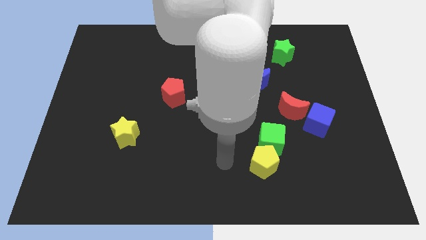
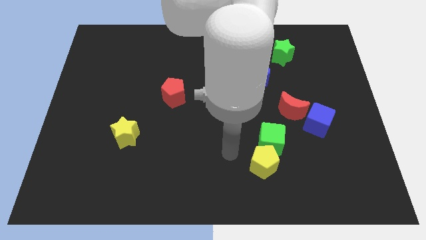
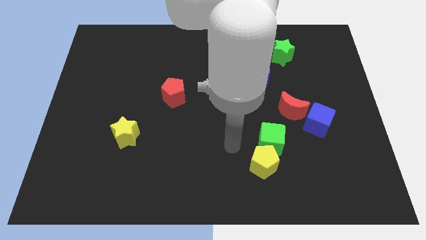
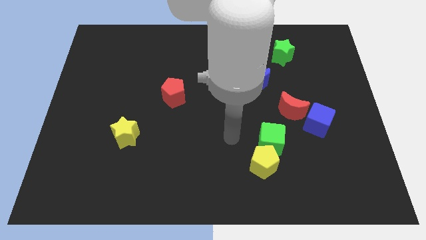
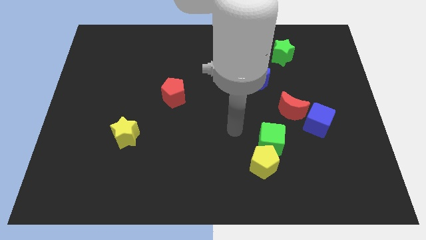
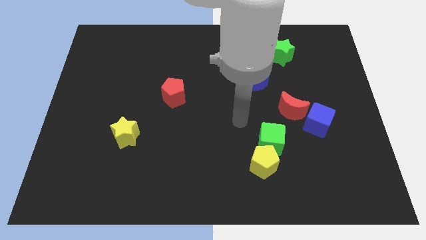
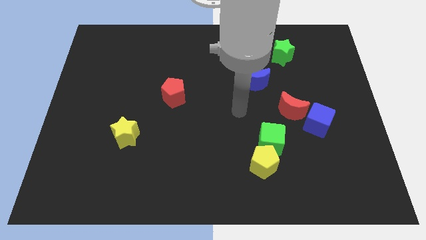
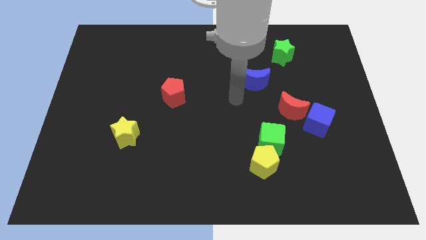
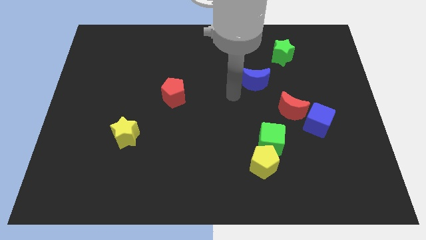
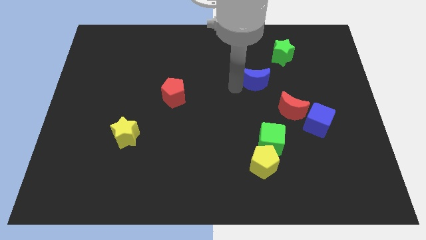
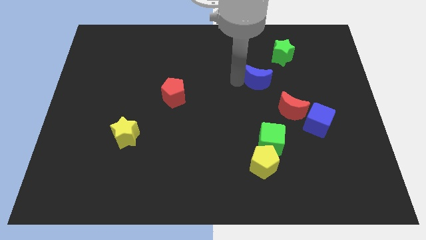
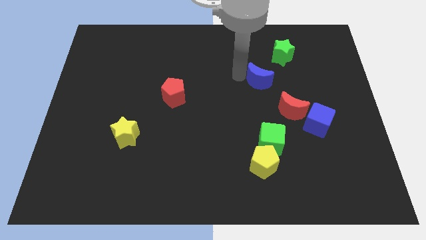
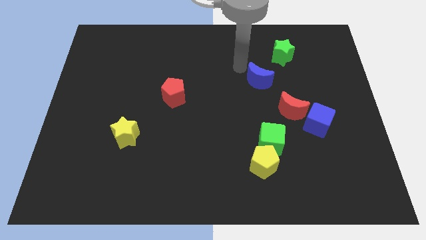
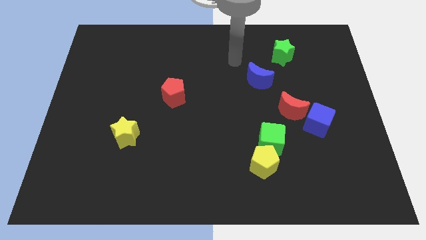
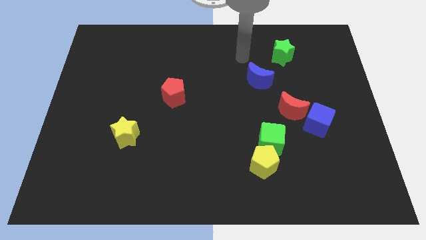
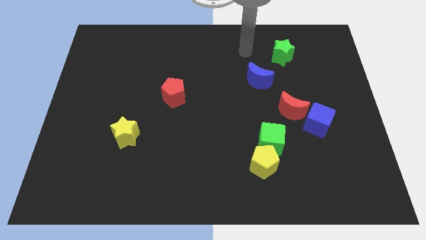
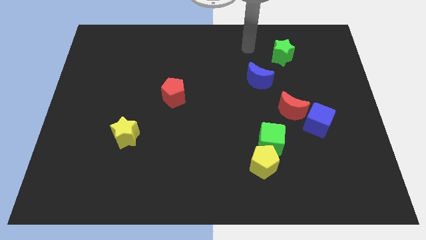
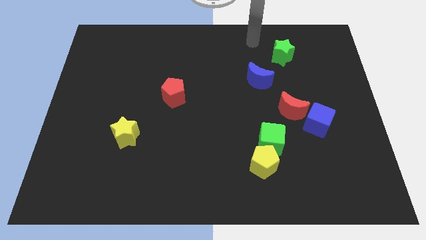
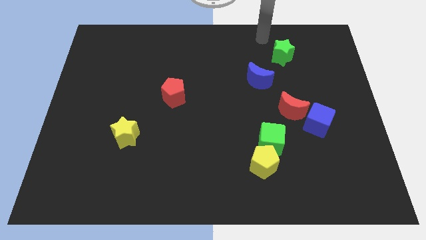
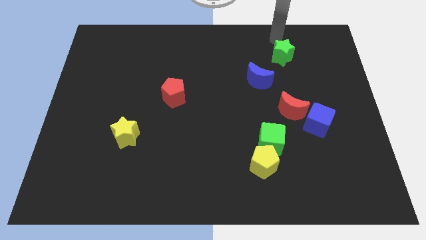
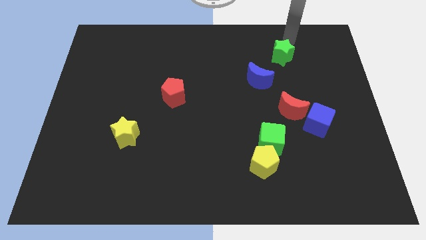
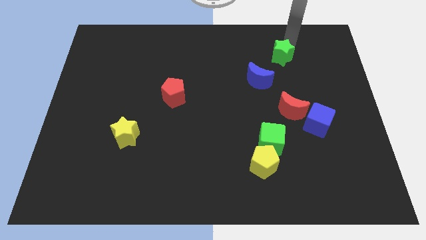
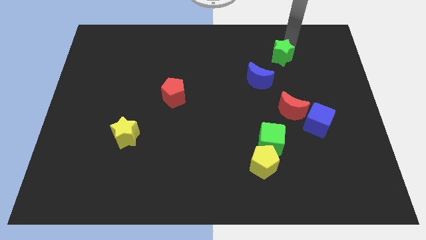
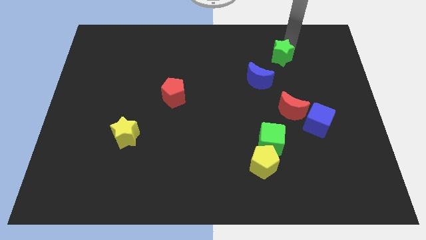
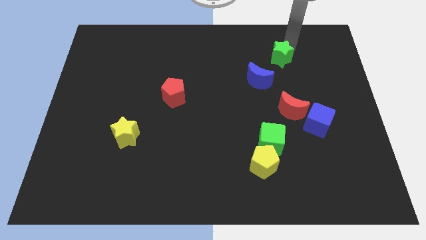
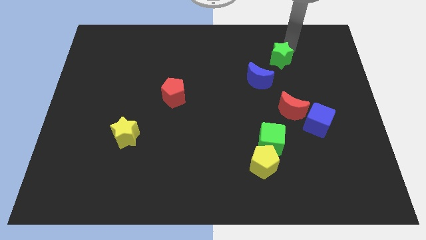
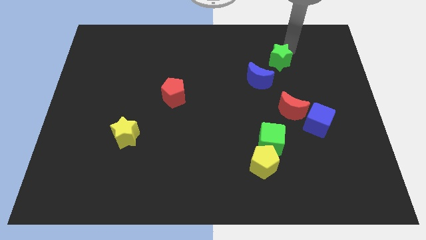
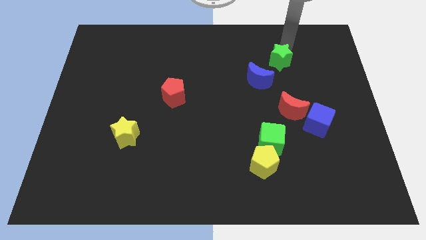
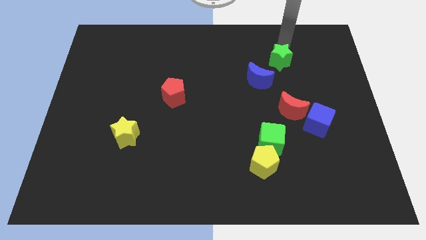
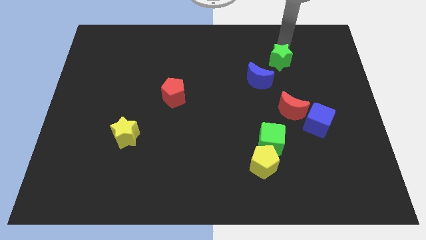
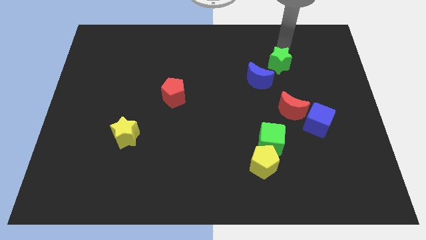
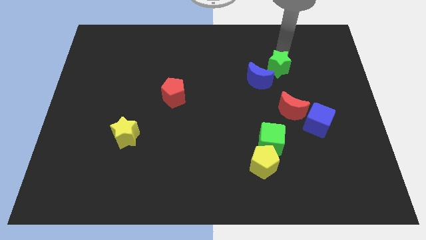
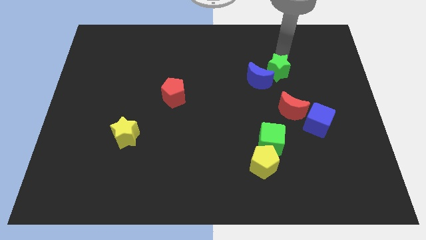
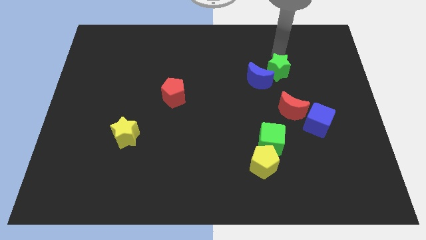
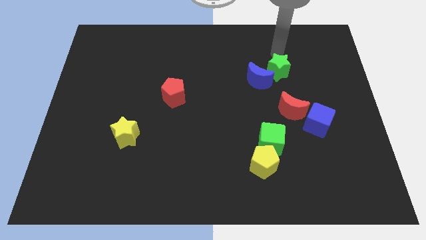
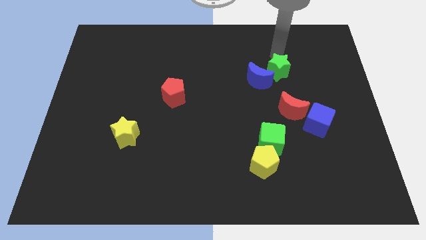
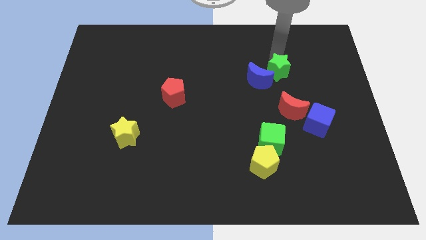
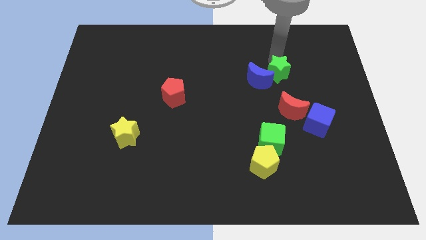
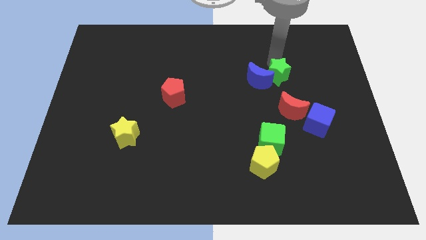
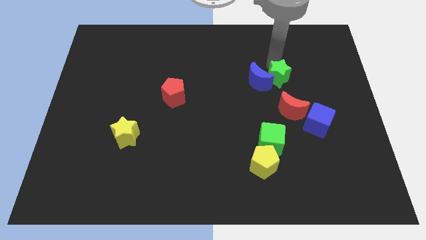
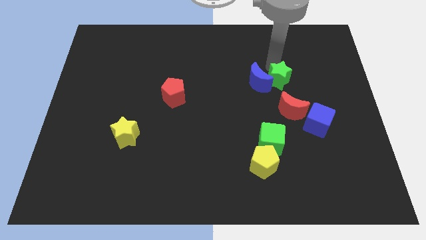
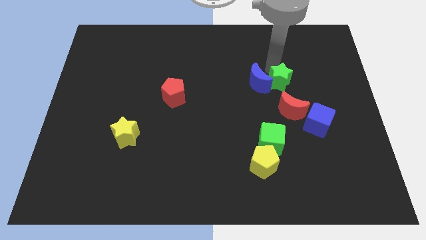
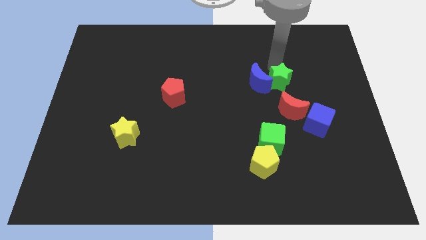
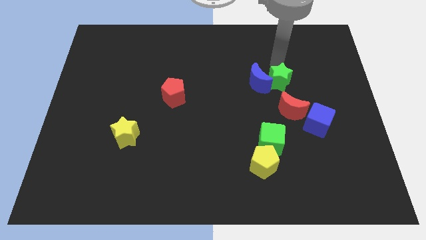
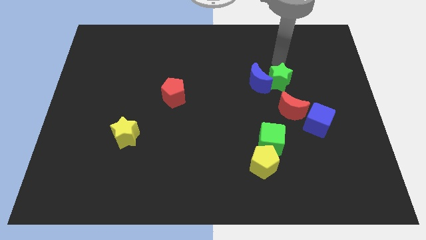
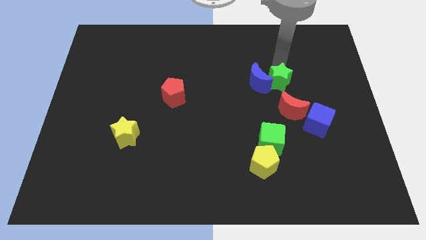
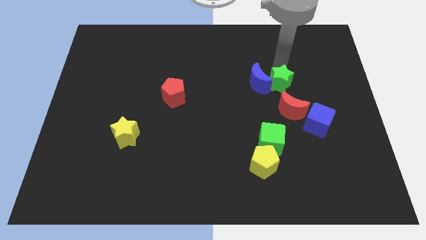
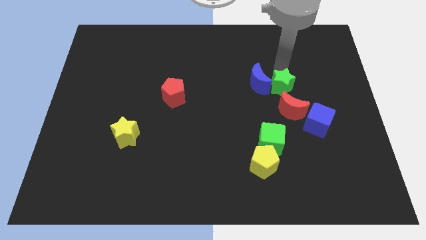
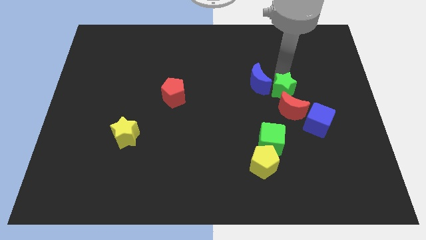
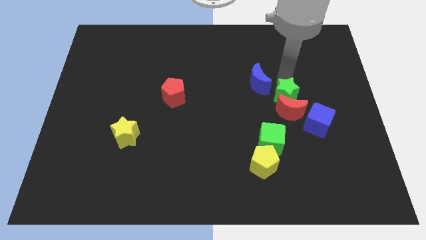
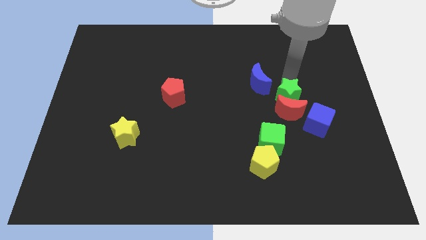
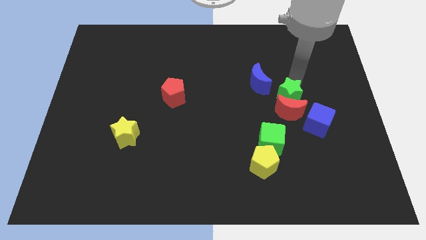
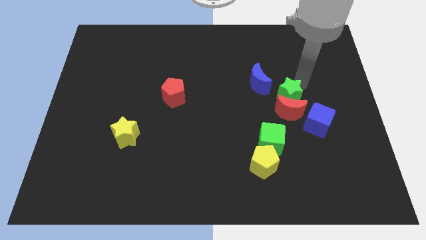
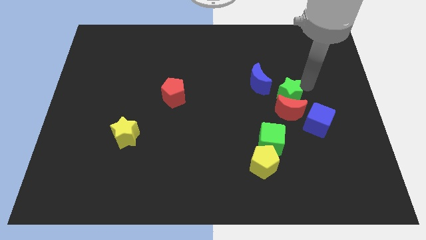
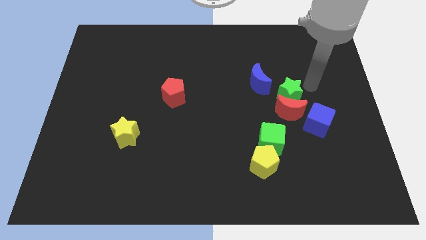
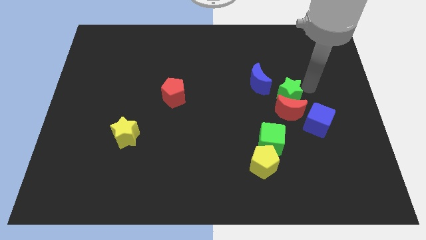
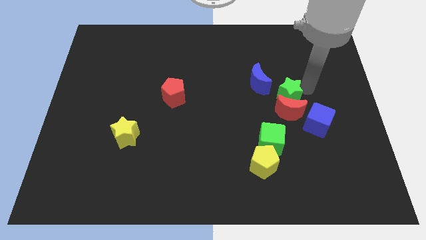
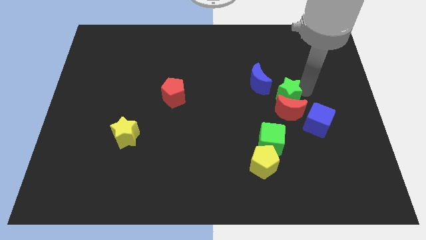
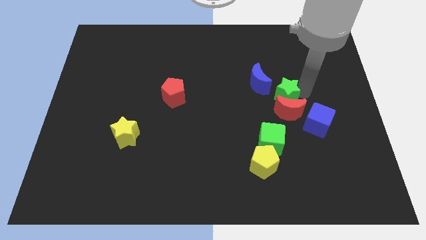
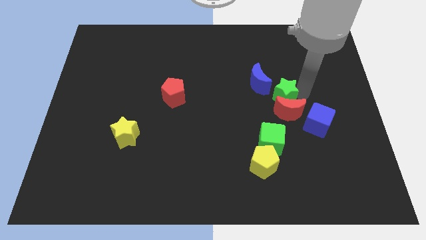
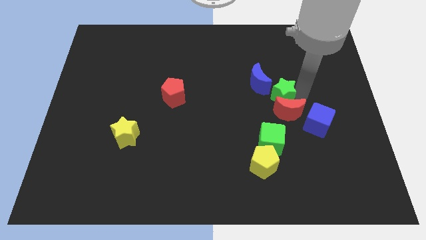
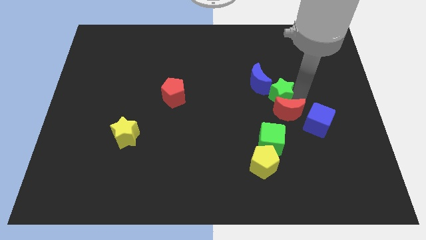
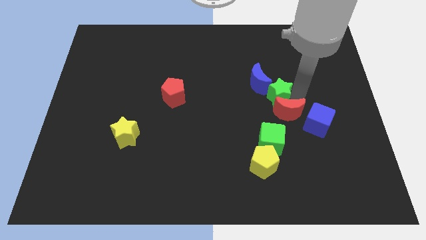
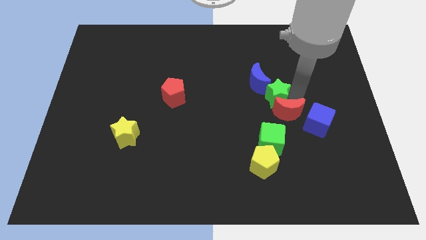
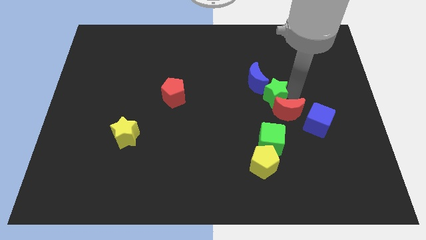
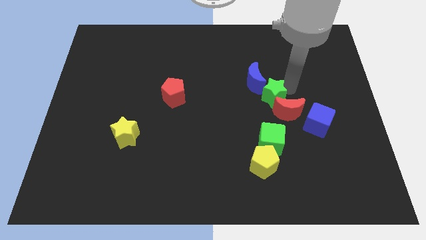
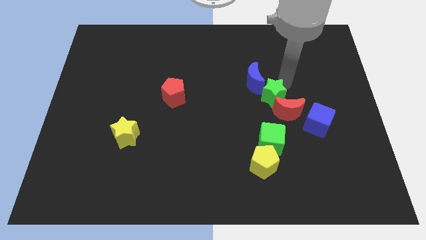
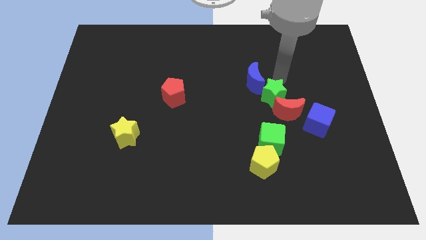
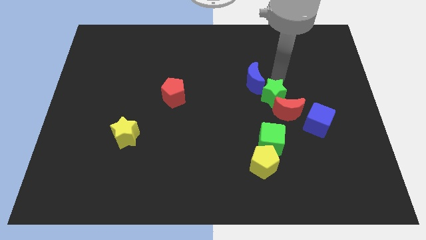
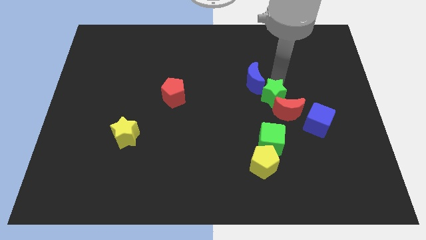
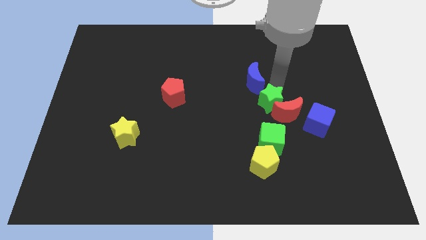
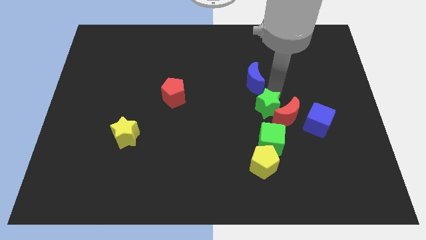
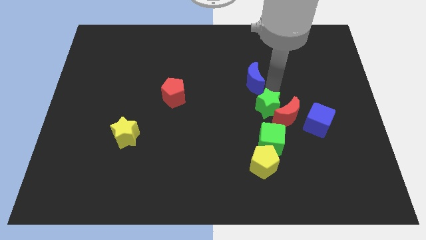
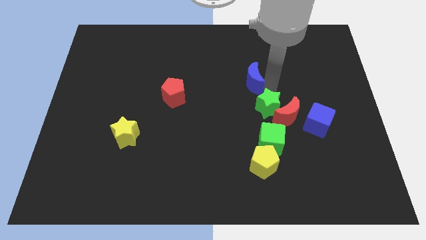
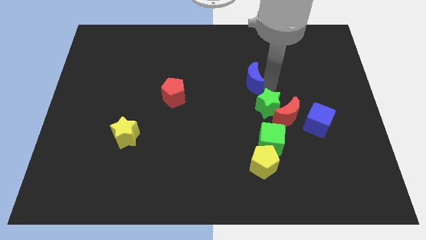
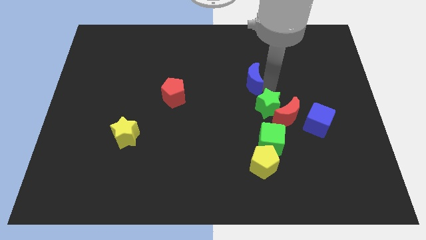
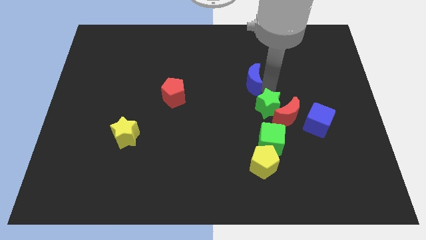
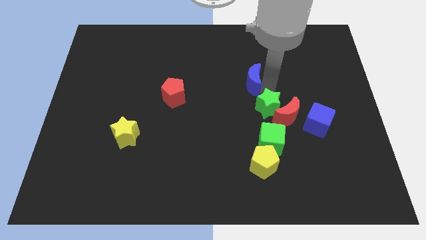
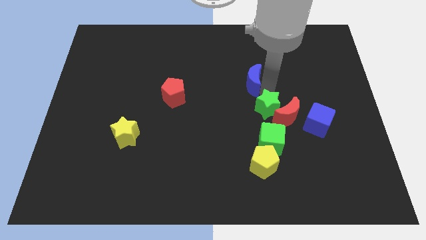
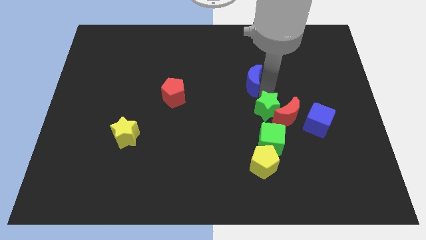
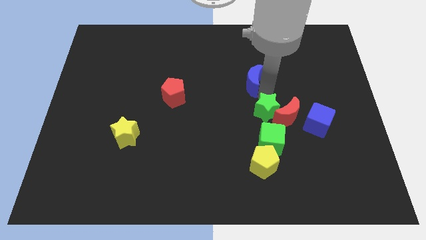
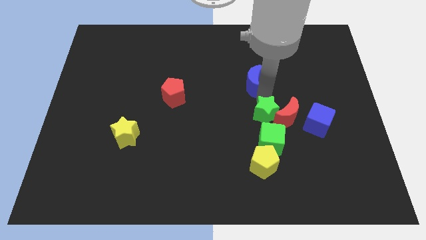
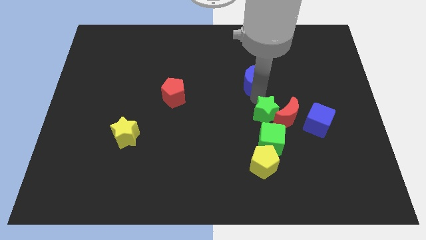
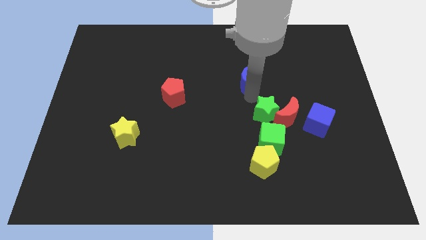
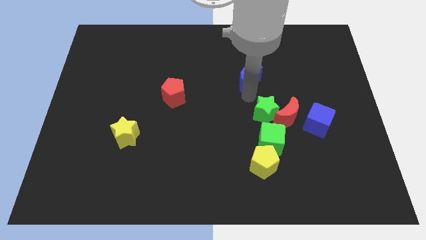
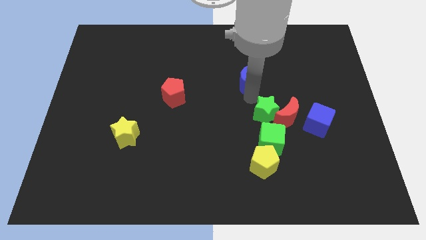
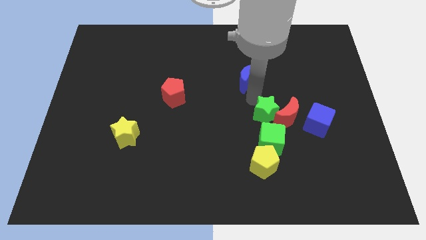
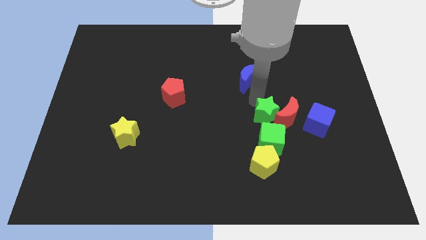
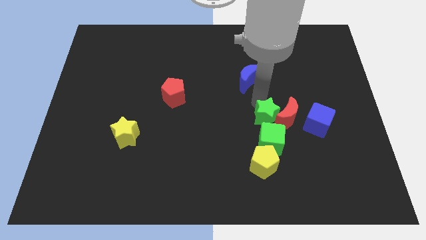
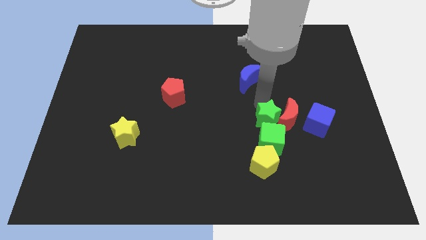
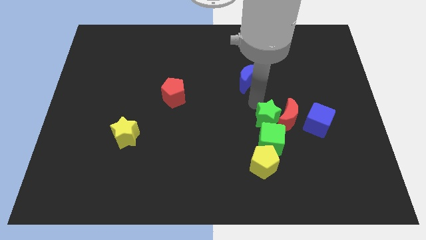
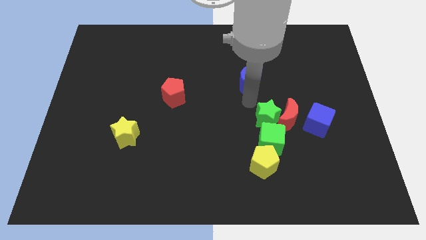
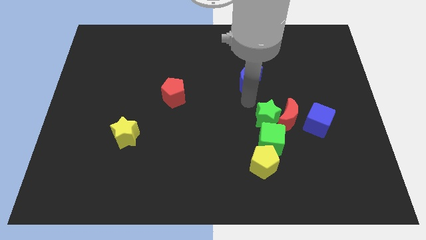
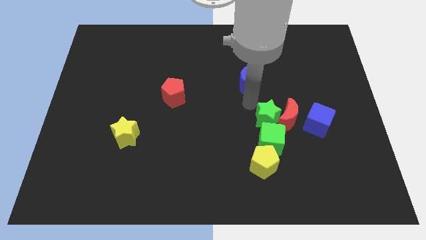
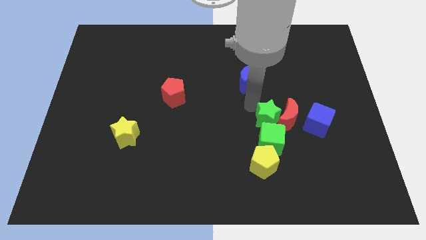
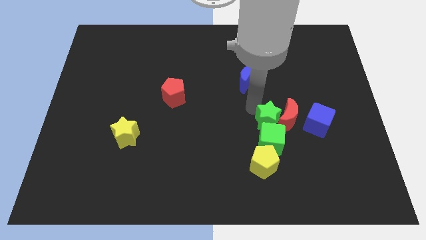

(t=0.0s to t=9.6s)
push the green star downwards
